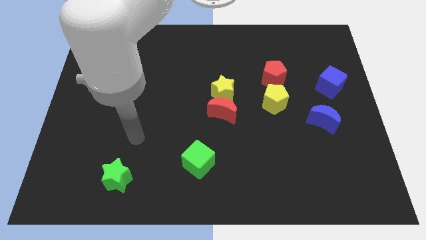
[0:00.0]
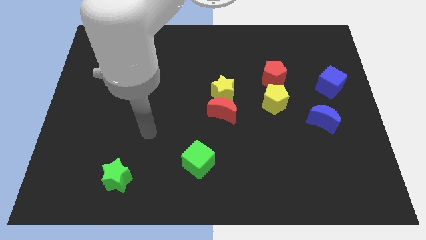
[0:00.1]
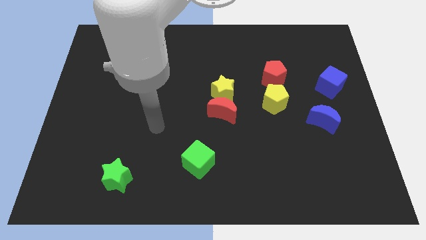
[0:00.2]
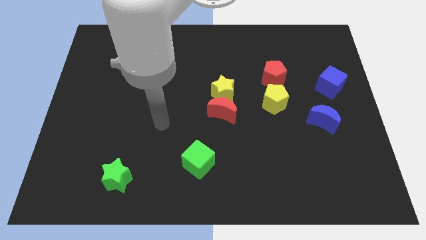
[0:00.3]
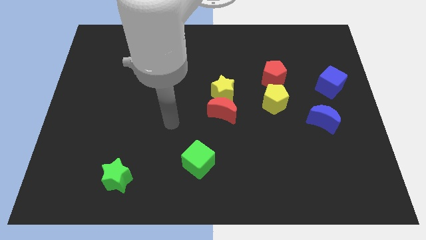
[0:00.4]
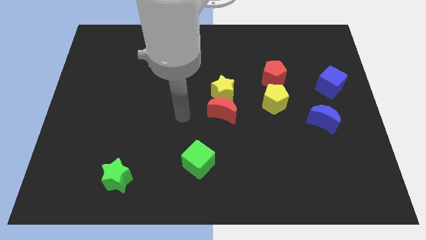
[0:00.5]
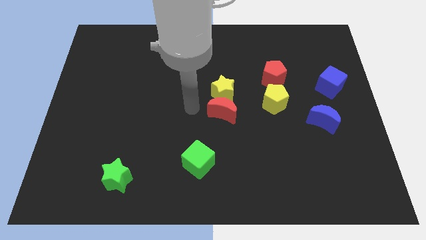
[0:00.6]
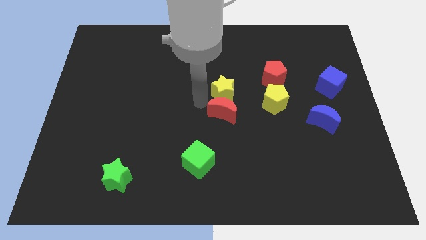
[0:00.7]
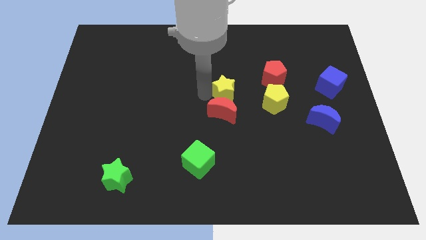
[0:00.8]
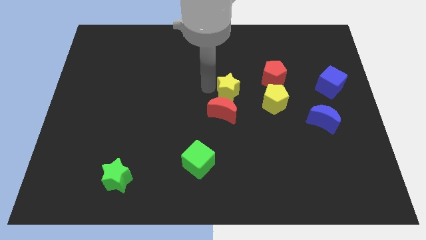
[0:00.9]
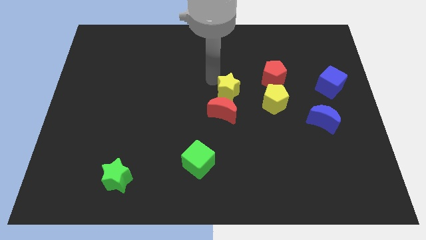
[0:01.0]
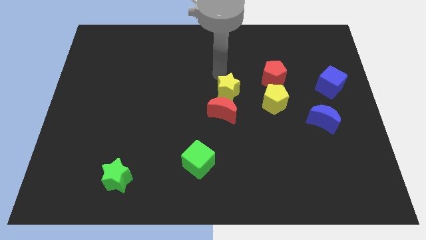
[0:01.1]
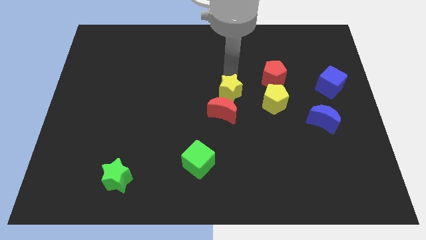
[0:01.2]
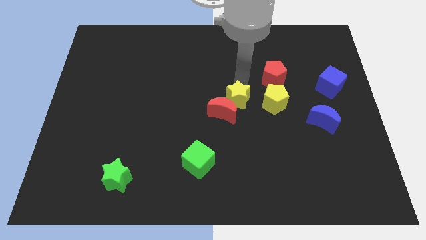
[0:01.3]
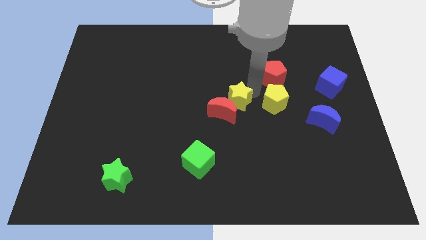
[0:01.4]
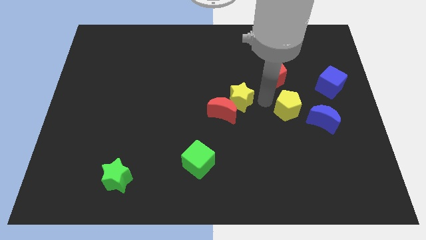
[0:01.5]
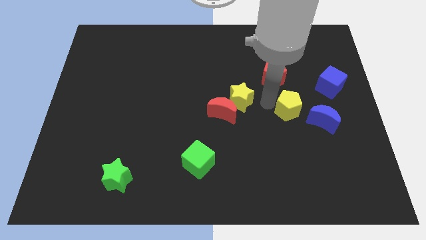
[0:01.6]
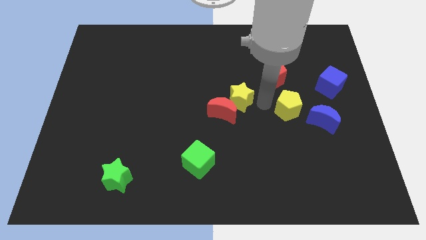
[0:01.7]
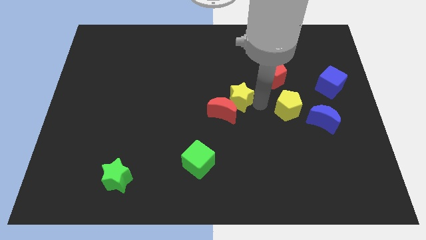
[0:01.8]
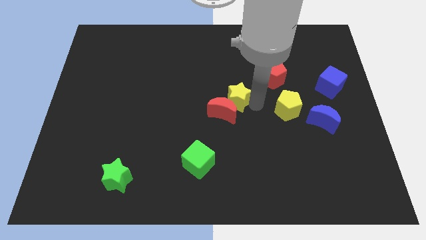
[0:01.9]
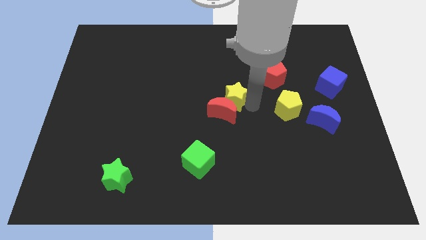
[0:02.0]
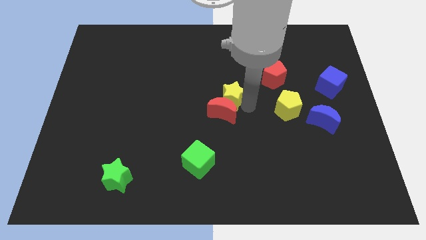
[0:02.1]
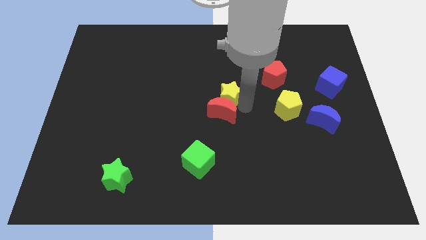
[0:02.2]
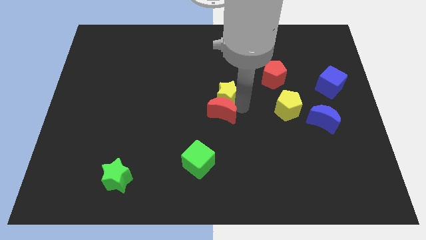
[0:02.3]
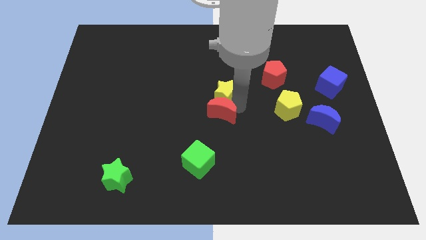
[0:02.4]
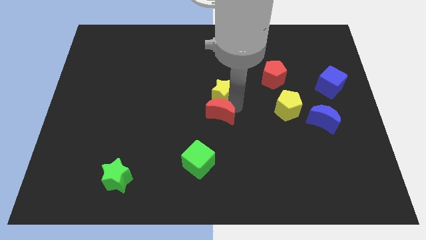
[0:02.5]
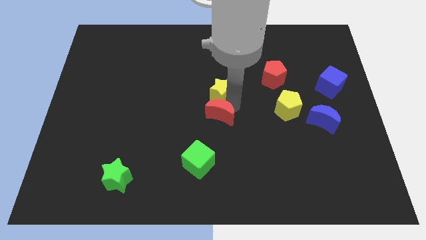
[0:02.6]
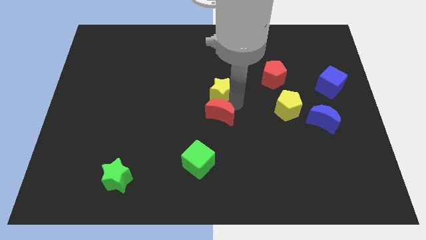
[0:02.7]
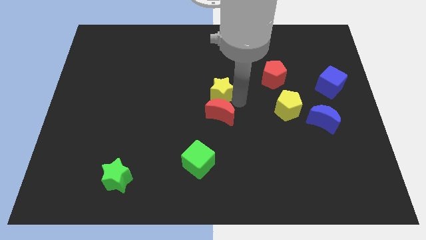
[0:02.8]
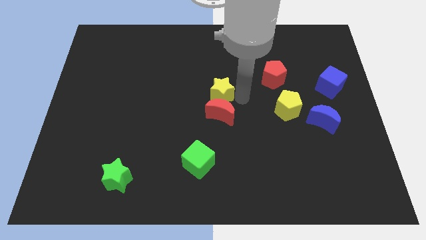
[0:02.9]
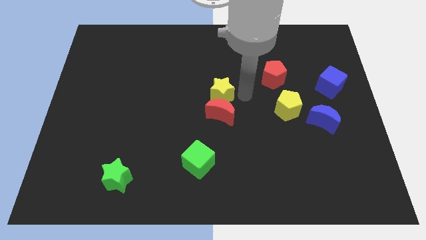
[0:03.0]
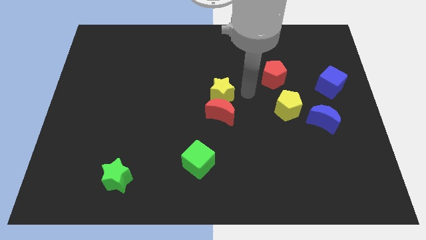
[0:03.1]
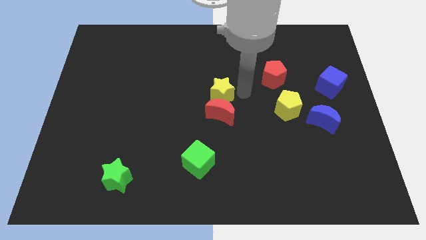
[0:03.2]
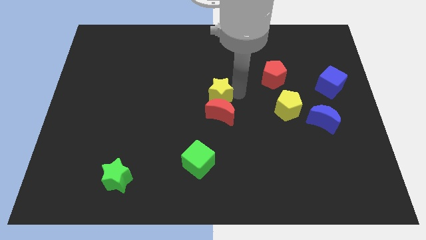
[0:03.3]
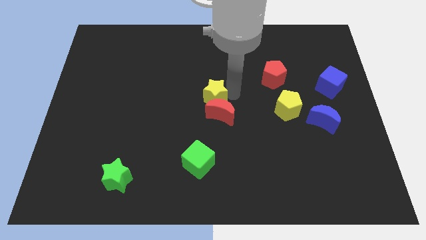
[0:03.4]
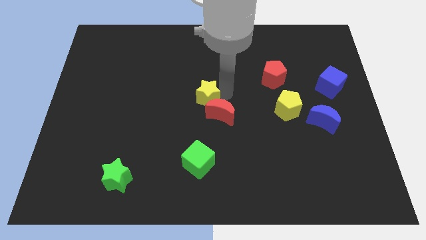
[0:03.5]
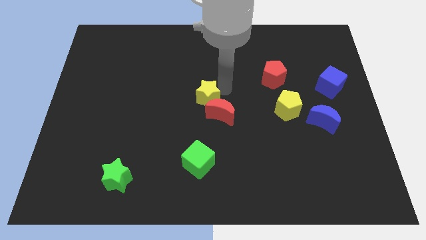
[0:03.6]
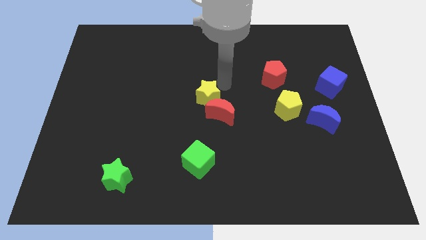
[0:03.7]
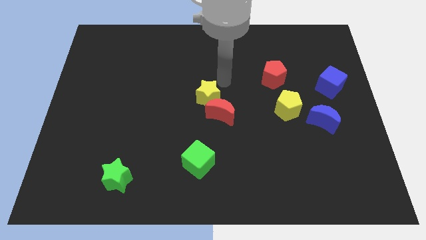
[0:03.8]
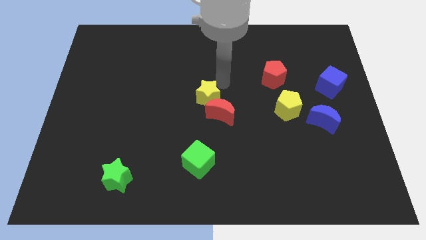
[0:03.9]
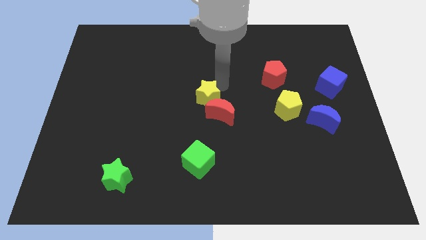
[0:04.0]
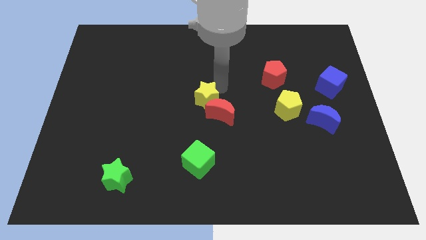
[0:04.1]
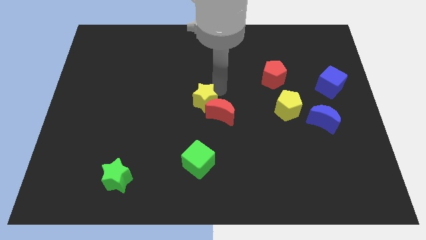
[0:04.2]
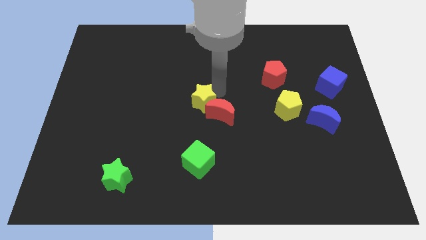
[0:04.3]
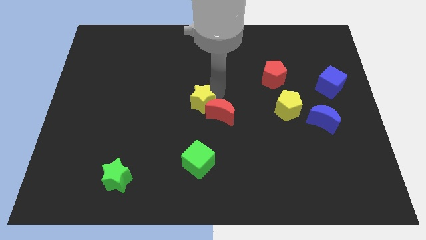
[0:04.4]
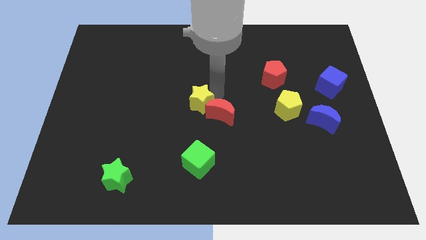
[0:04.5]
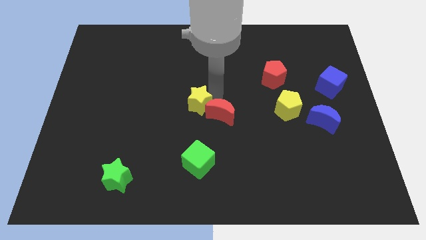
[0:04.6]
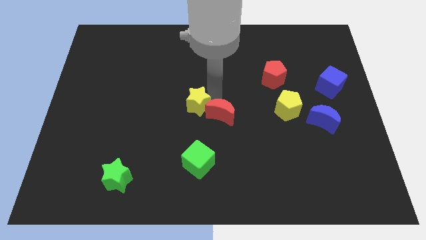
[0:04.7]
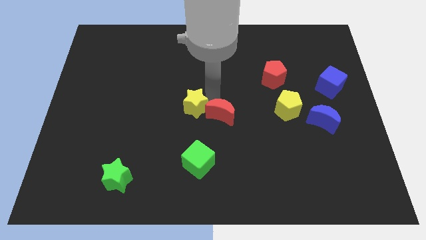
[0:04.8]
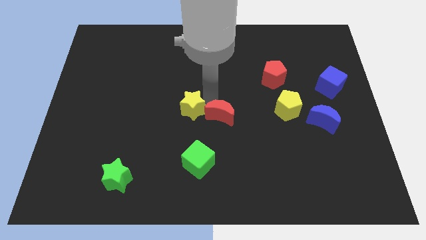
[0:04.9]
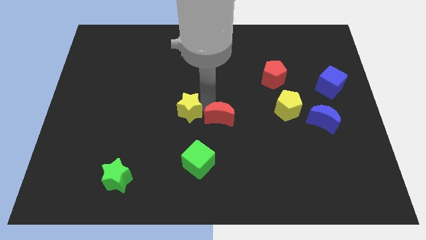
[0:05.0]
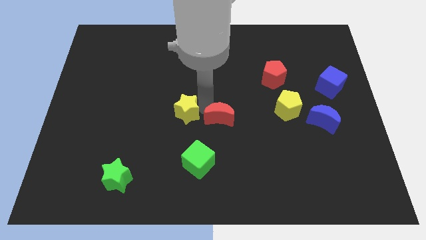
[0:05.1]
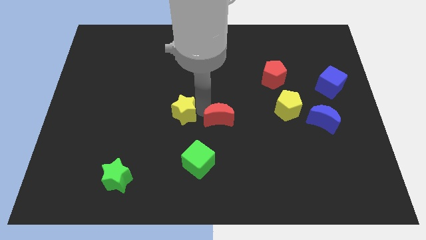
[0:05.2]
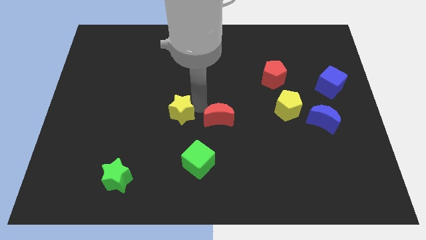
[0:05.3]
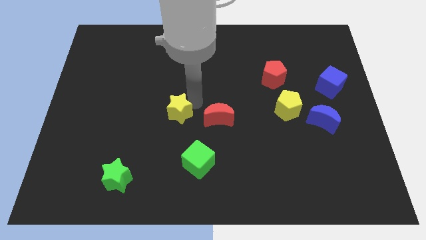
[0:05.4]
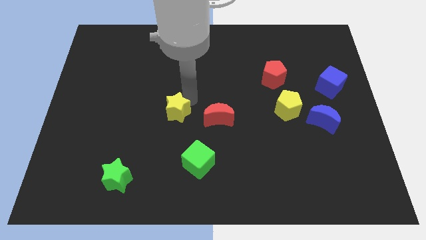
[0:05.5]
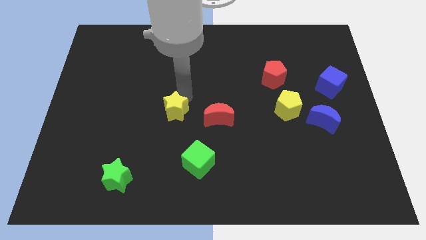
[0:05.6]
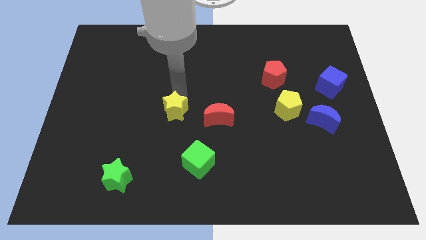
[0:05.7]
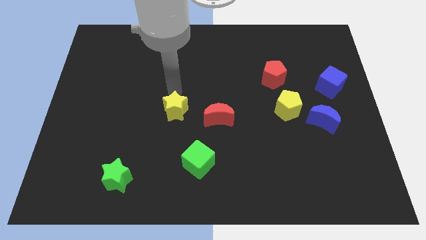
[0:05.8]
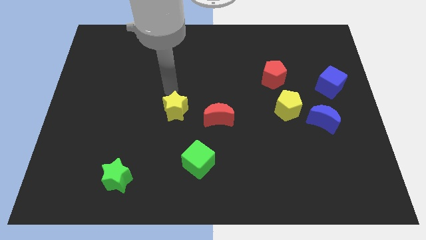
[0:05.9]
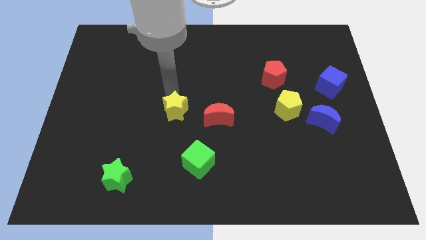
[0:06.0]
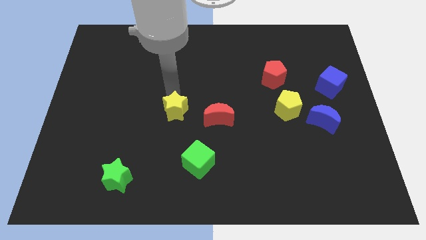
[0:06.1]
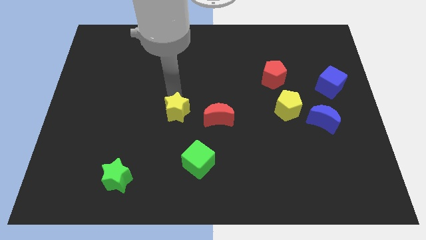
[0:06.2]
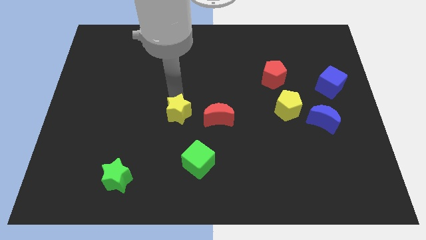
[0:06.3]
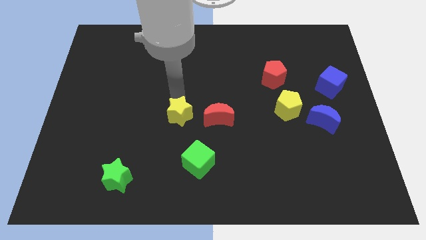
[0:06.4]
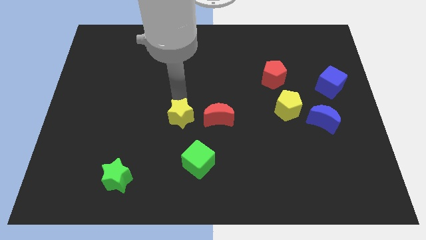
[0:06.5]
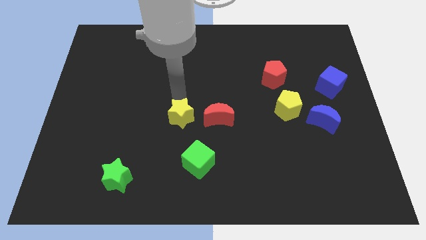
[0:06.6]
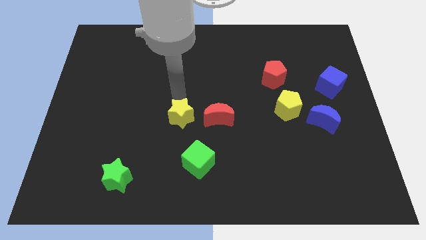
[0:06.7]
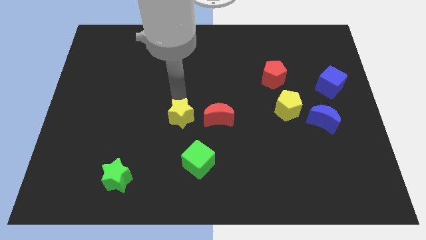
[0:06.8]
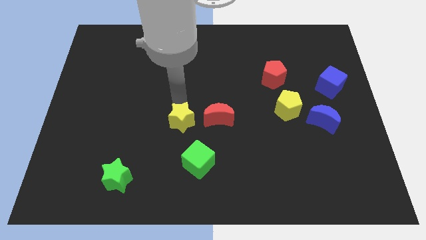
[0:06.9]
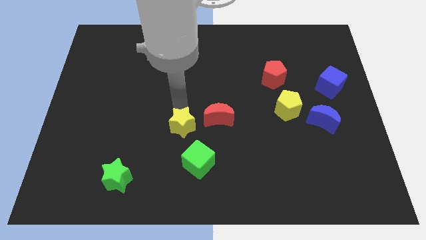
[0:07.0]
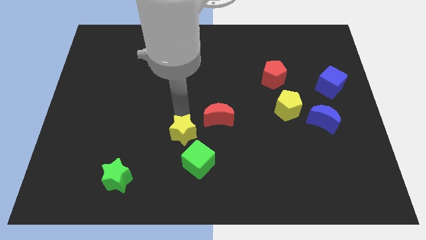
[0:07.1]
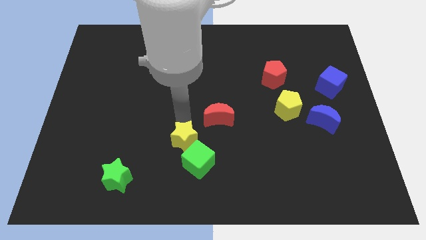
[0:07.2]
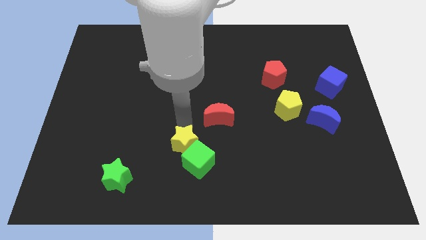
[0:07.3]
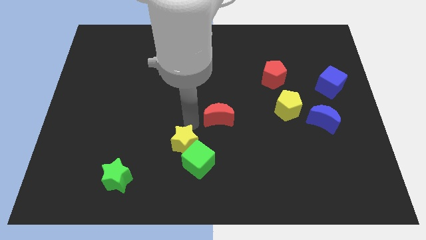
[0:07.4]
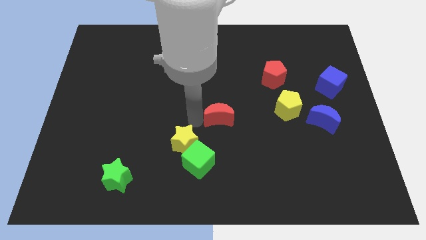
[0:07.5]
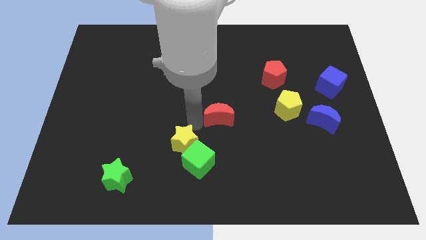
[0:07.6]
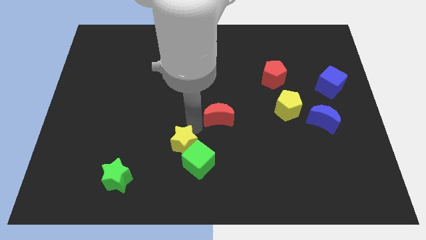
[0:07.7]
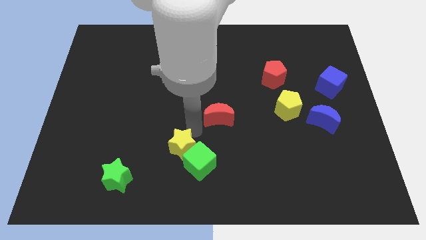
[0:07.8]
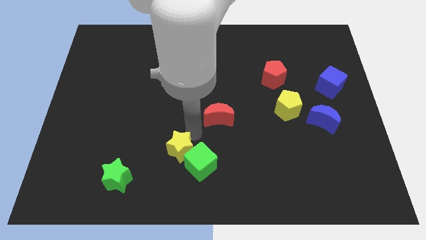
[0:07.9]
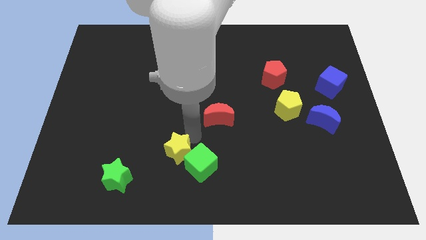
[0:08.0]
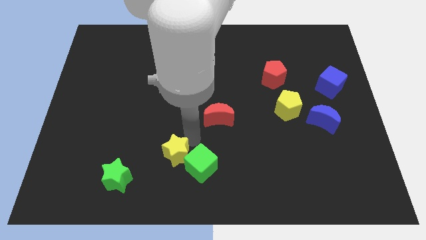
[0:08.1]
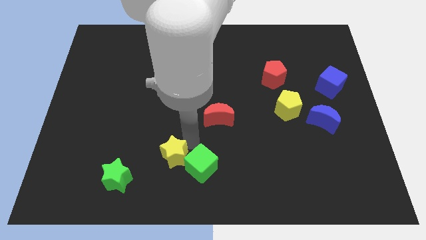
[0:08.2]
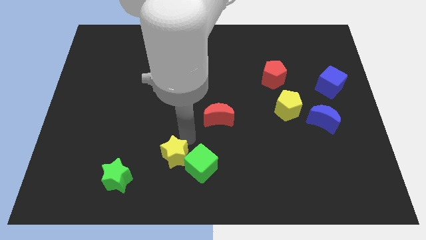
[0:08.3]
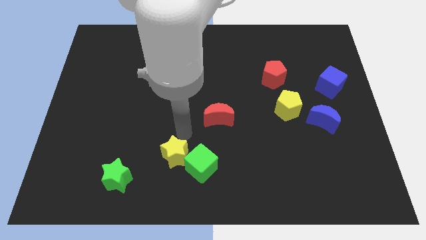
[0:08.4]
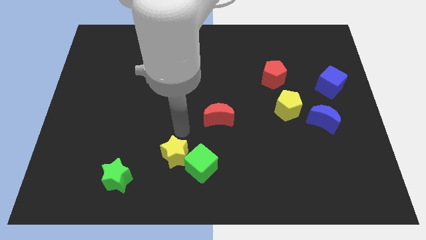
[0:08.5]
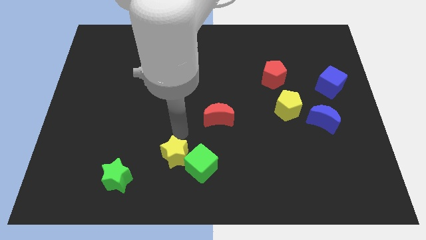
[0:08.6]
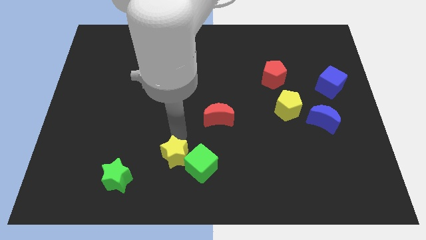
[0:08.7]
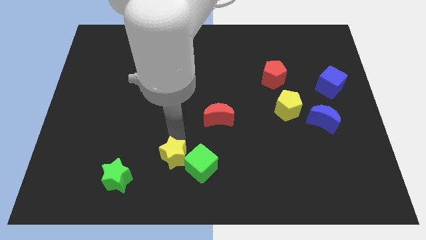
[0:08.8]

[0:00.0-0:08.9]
move the yellow star to the right of the green star
